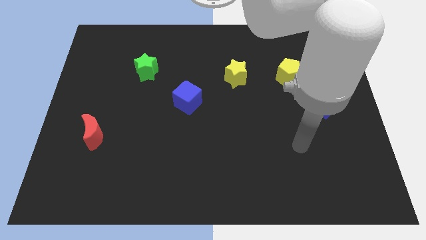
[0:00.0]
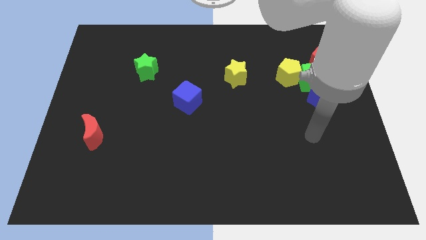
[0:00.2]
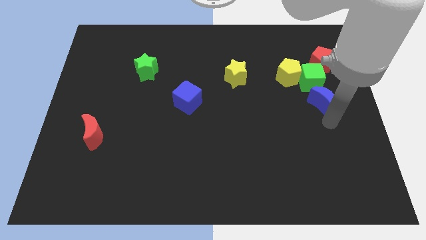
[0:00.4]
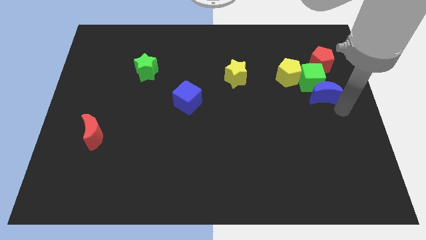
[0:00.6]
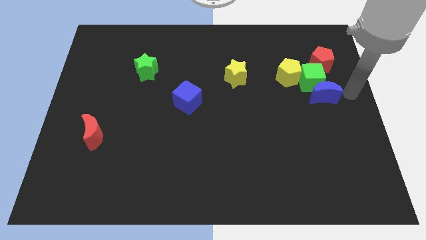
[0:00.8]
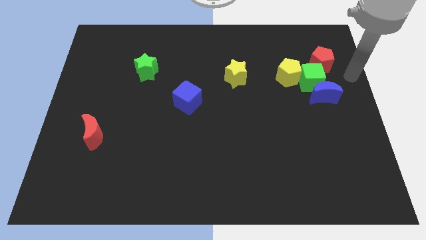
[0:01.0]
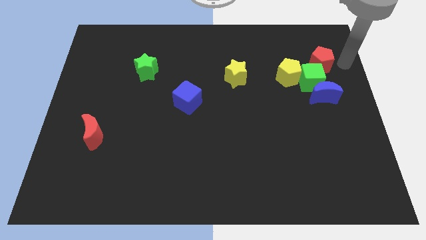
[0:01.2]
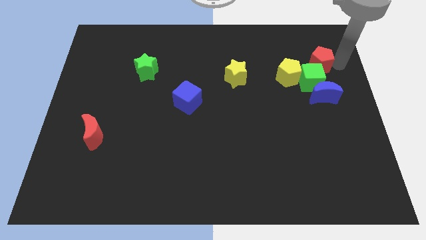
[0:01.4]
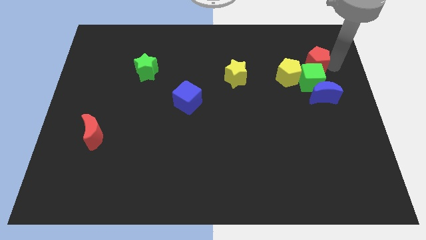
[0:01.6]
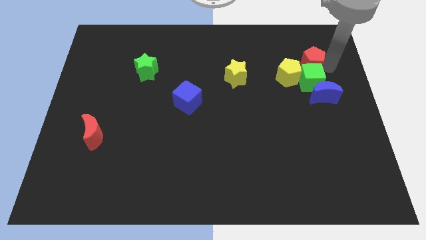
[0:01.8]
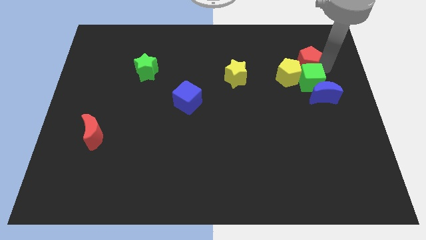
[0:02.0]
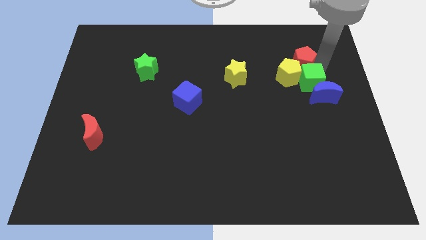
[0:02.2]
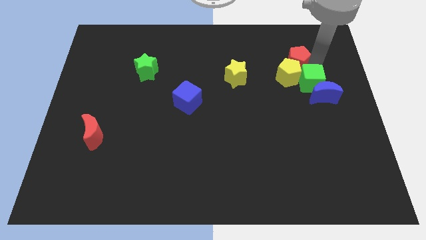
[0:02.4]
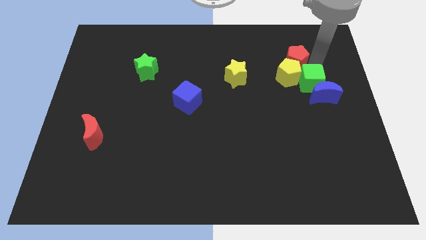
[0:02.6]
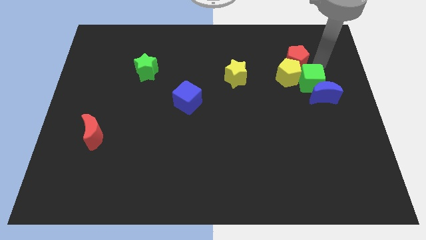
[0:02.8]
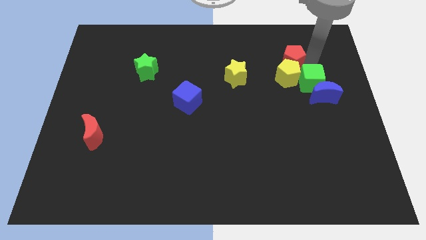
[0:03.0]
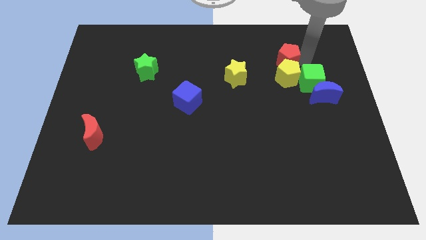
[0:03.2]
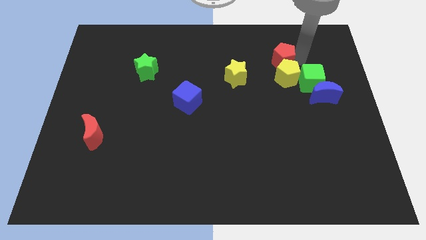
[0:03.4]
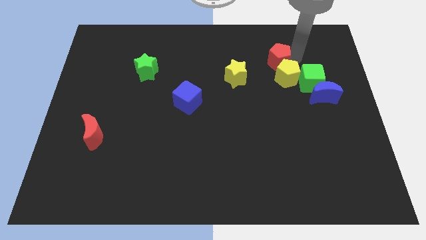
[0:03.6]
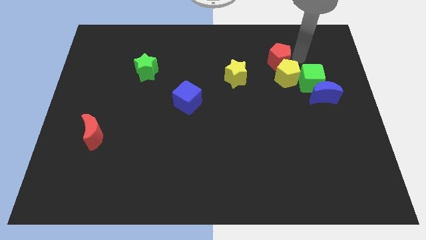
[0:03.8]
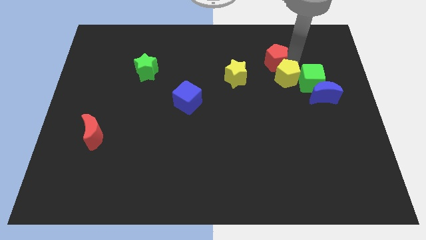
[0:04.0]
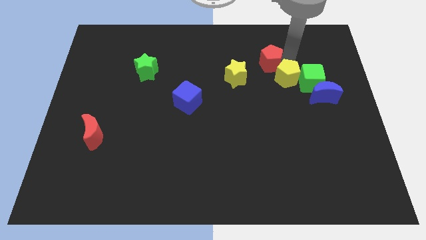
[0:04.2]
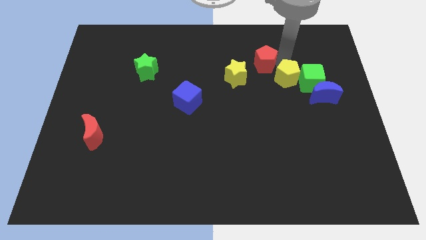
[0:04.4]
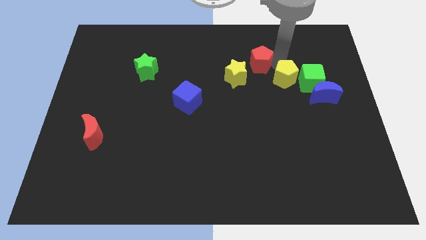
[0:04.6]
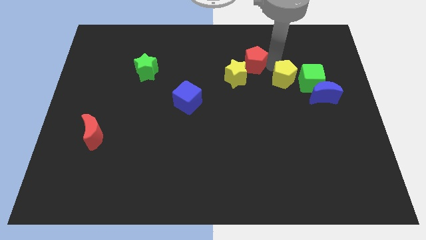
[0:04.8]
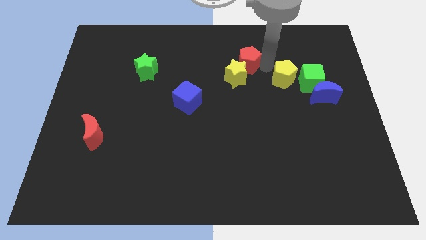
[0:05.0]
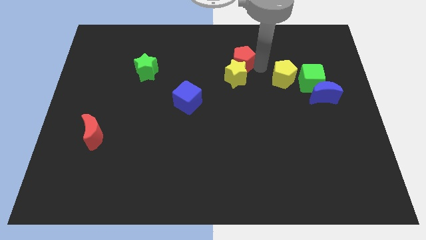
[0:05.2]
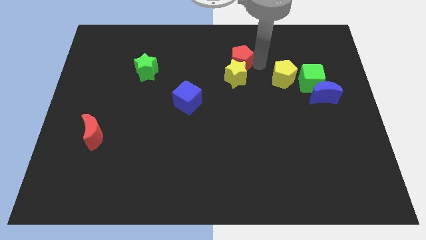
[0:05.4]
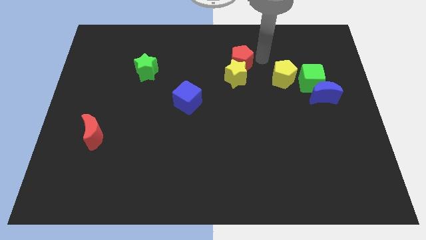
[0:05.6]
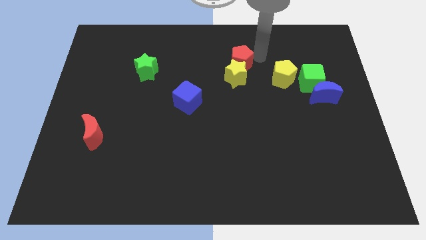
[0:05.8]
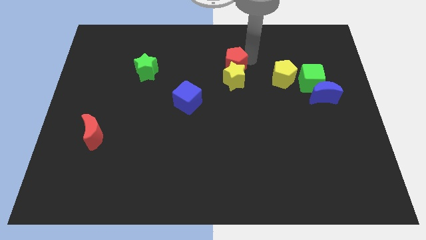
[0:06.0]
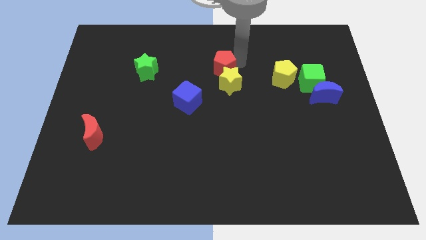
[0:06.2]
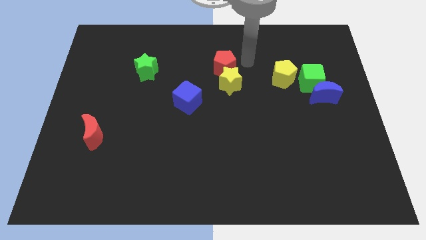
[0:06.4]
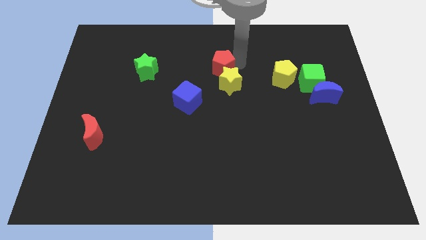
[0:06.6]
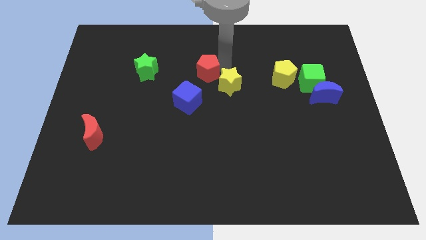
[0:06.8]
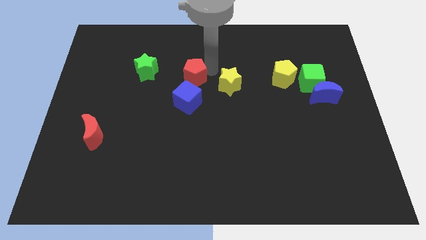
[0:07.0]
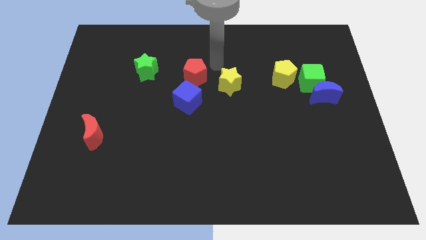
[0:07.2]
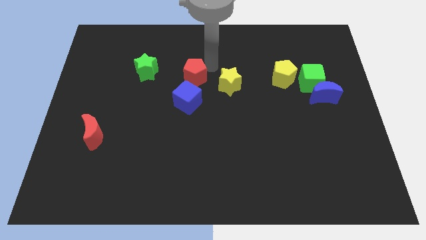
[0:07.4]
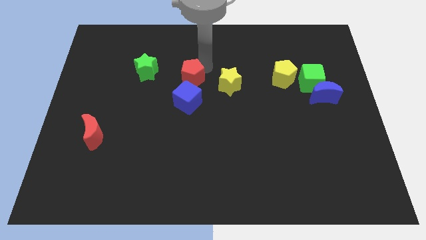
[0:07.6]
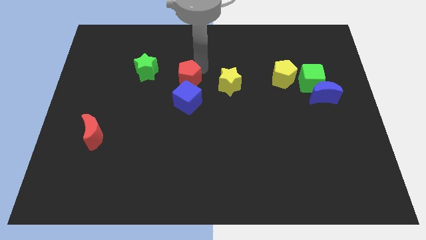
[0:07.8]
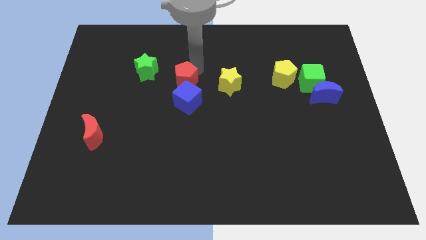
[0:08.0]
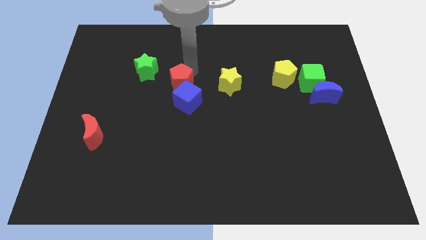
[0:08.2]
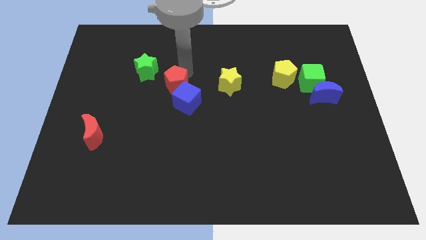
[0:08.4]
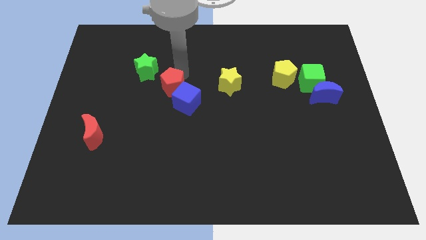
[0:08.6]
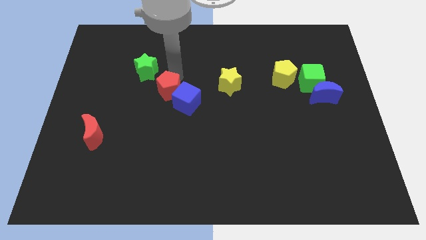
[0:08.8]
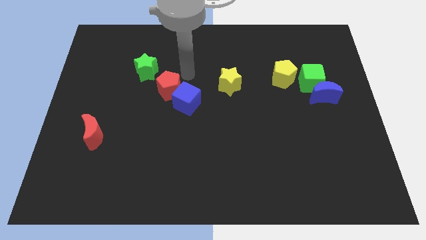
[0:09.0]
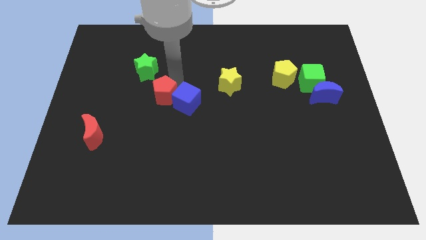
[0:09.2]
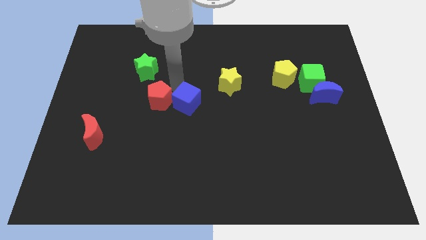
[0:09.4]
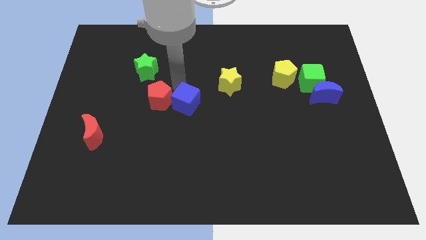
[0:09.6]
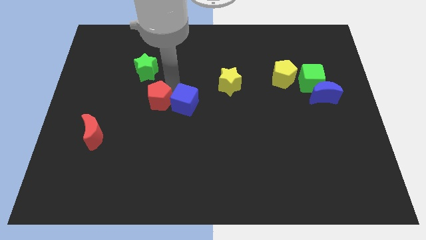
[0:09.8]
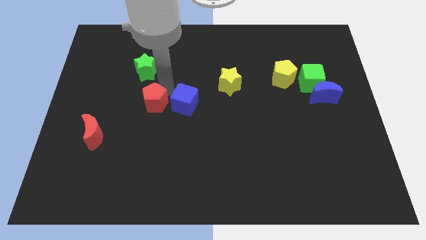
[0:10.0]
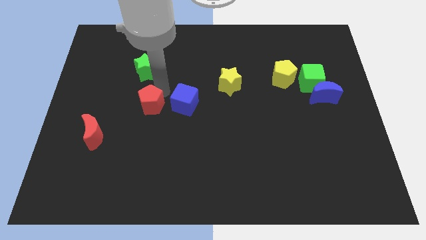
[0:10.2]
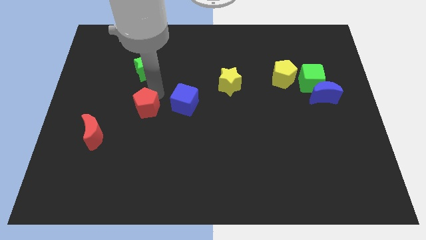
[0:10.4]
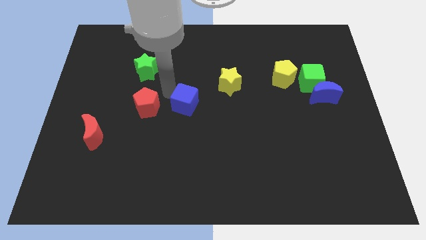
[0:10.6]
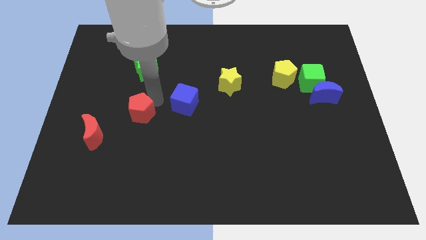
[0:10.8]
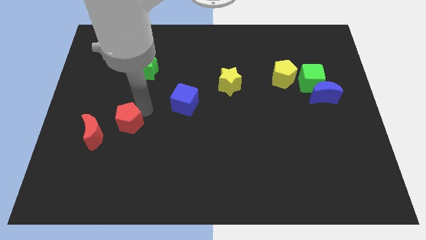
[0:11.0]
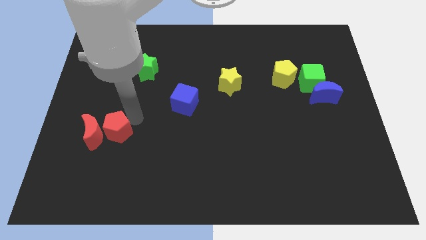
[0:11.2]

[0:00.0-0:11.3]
put the red pentagon close to the red moon

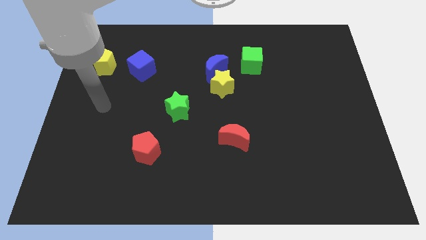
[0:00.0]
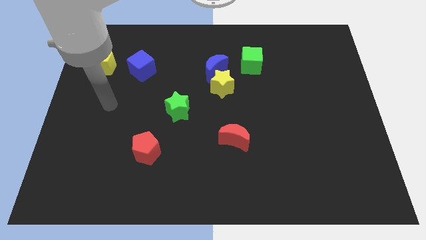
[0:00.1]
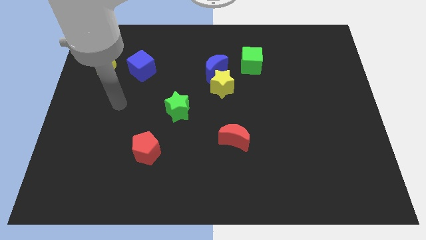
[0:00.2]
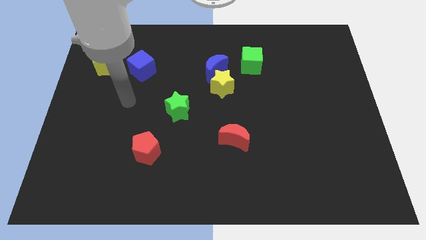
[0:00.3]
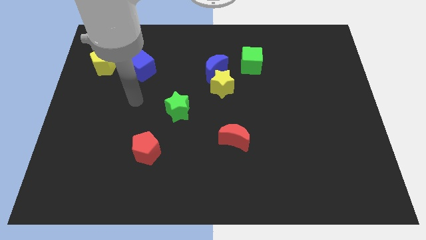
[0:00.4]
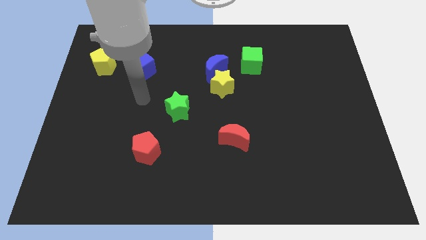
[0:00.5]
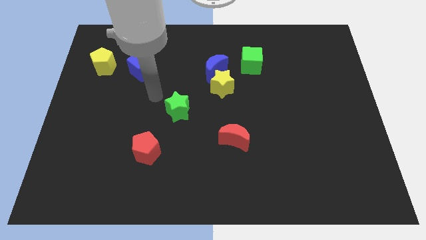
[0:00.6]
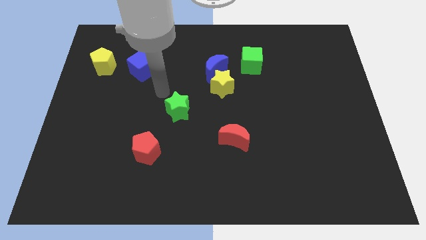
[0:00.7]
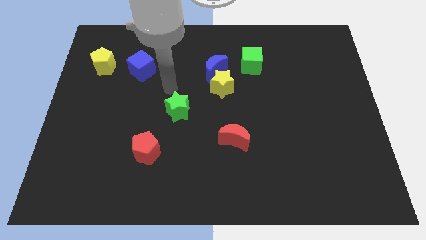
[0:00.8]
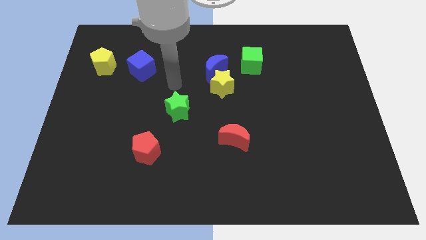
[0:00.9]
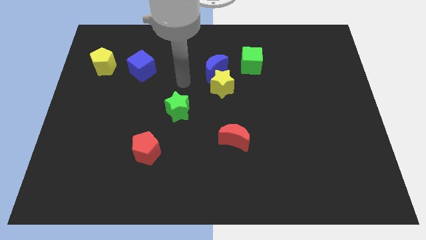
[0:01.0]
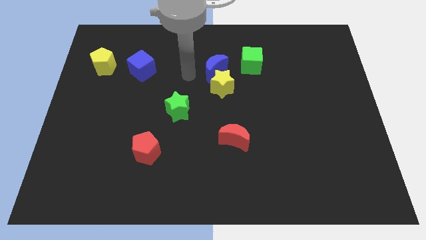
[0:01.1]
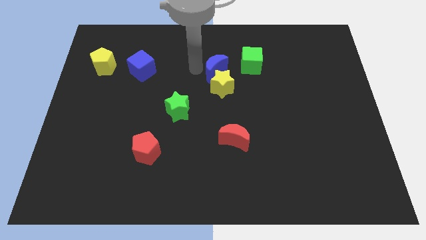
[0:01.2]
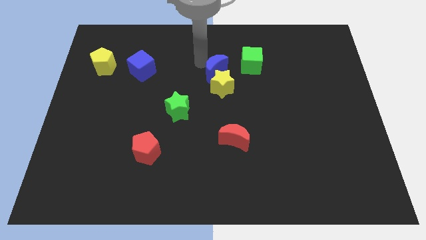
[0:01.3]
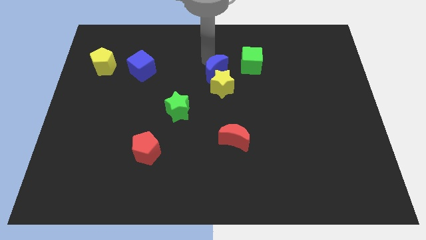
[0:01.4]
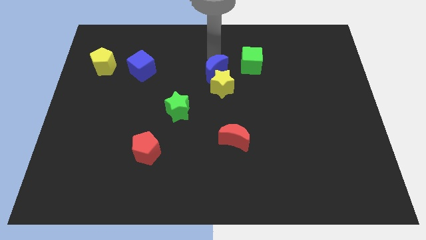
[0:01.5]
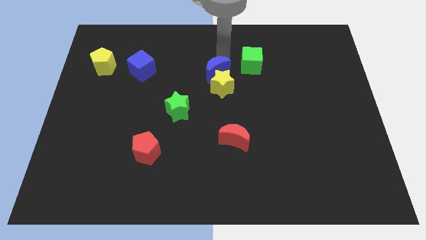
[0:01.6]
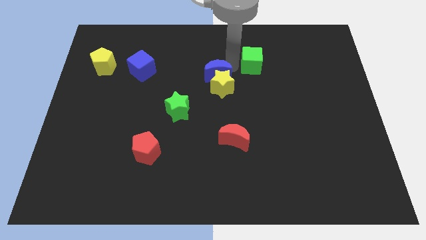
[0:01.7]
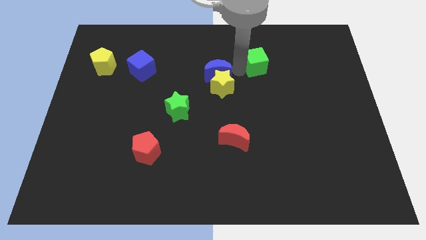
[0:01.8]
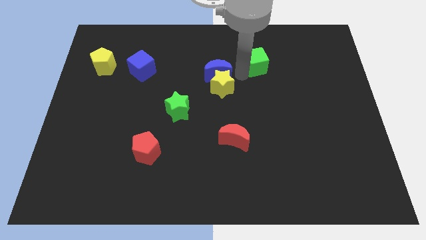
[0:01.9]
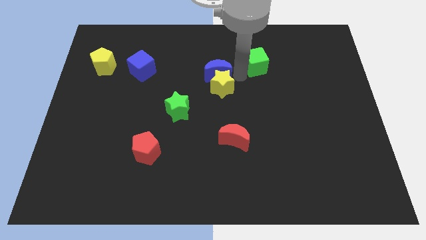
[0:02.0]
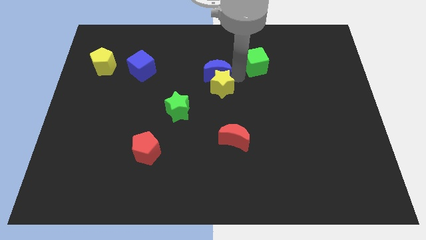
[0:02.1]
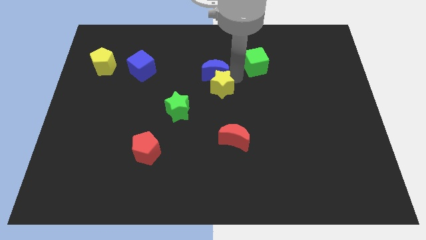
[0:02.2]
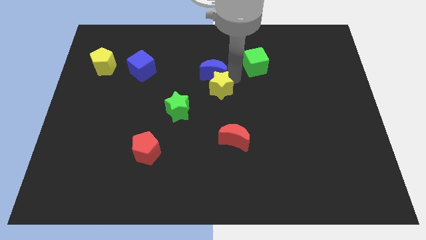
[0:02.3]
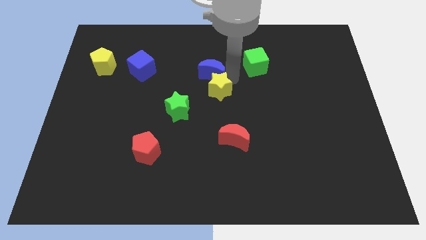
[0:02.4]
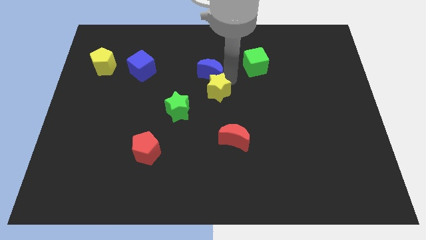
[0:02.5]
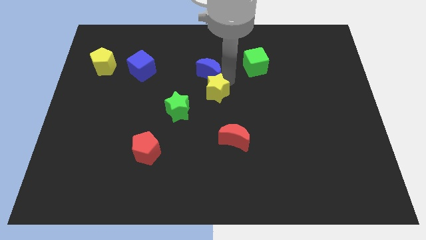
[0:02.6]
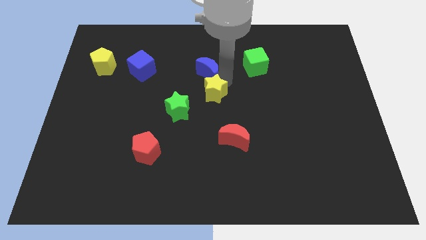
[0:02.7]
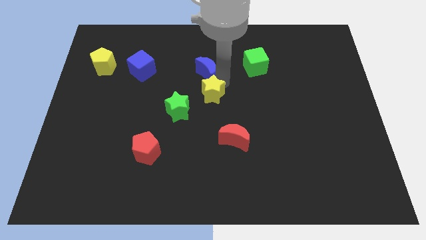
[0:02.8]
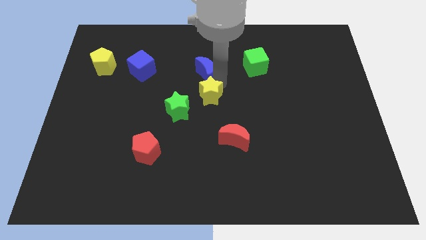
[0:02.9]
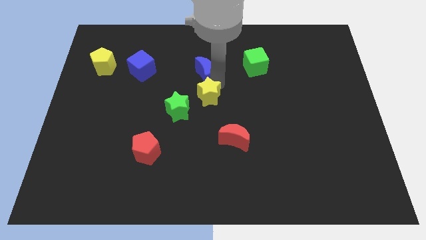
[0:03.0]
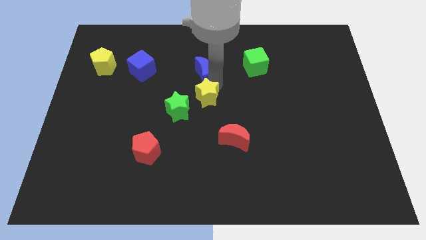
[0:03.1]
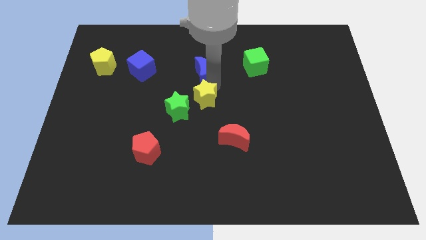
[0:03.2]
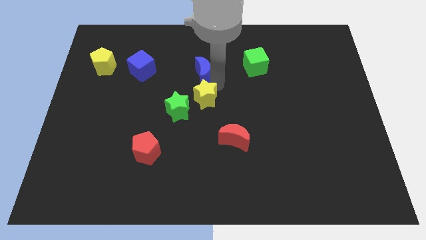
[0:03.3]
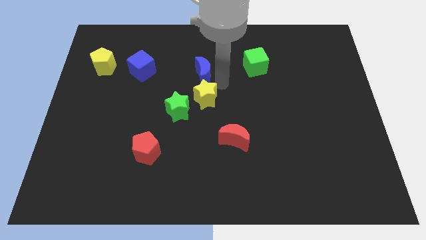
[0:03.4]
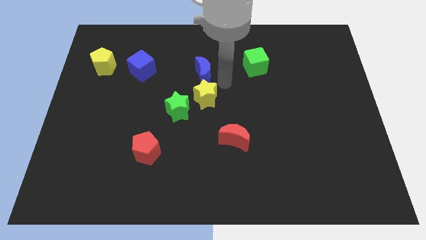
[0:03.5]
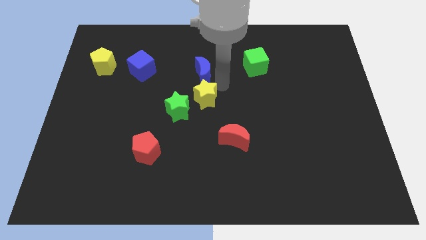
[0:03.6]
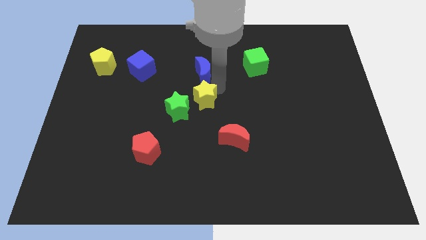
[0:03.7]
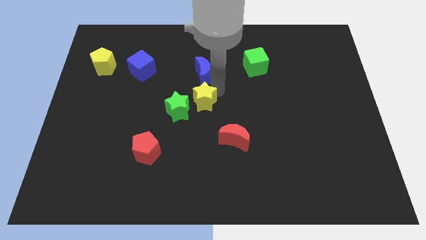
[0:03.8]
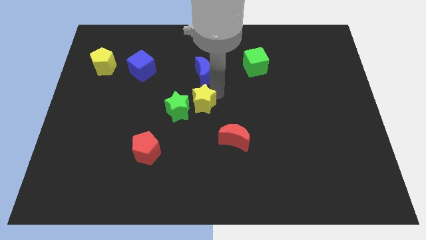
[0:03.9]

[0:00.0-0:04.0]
slide the yellow star towards the green star
